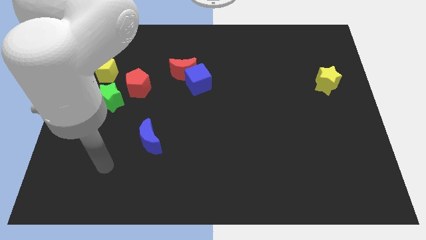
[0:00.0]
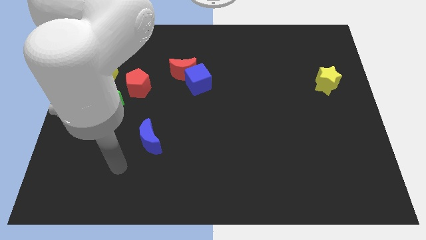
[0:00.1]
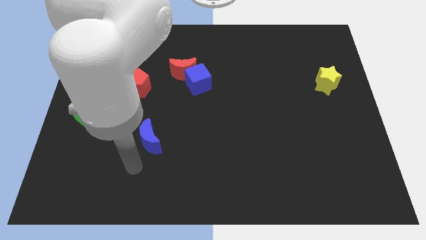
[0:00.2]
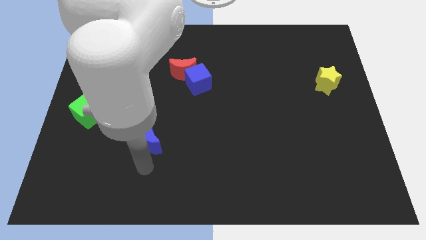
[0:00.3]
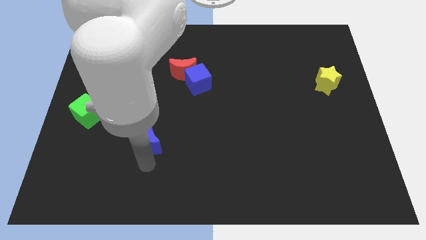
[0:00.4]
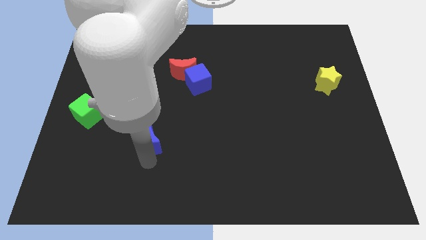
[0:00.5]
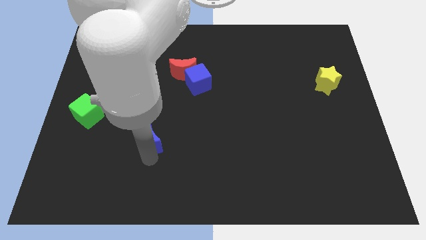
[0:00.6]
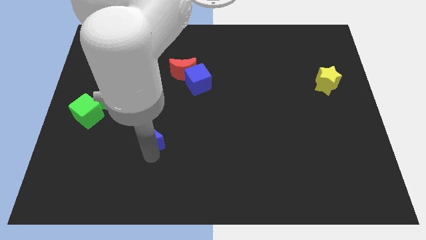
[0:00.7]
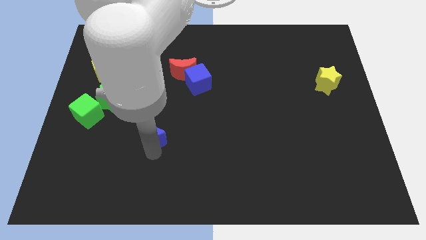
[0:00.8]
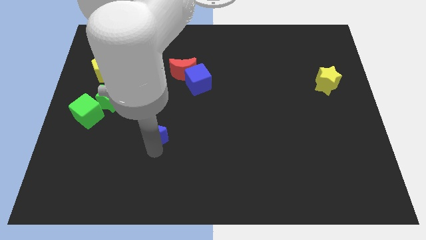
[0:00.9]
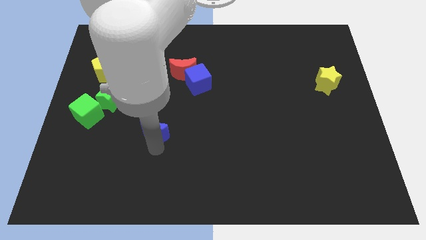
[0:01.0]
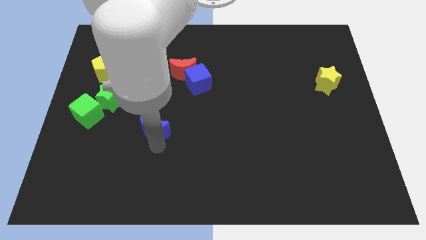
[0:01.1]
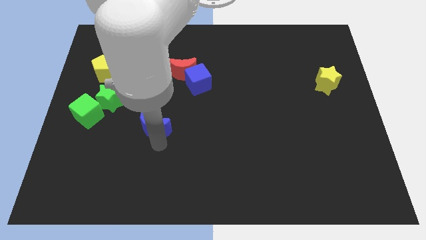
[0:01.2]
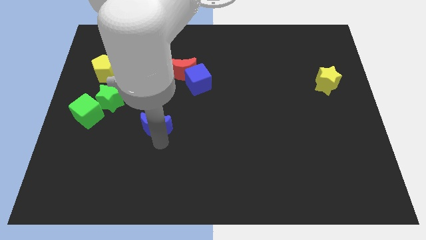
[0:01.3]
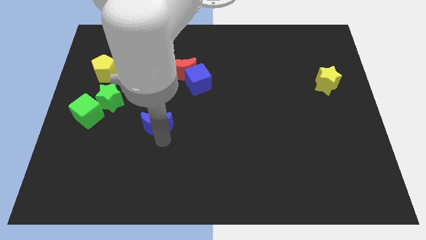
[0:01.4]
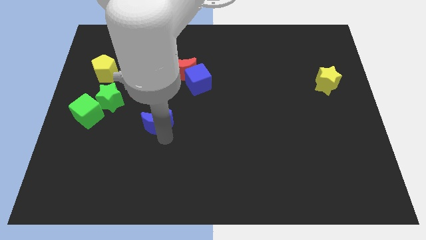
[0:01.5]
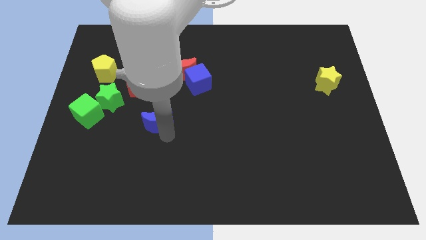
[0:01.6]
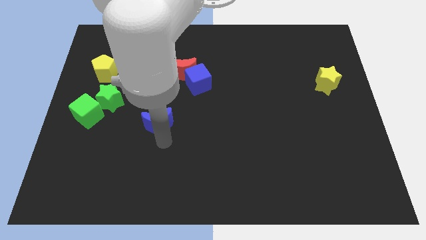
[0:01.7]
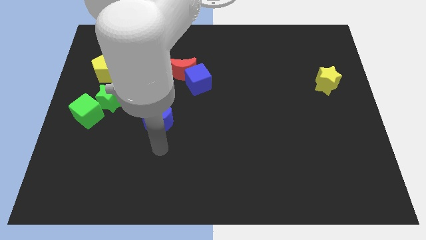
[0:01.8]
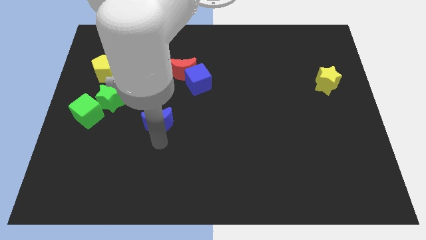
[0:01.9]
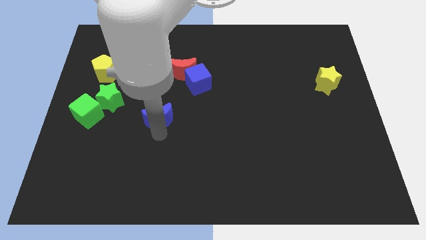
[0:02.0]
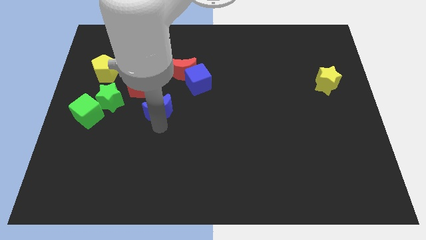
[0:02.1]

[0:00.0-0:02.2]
move the blue moon upwards slightly

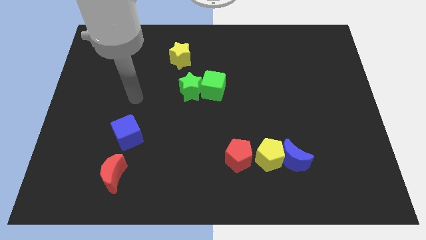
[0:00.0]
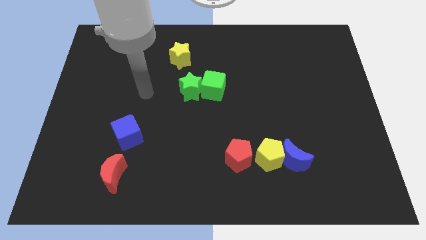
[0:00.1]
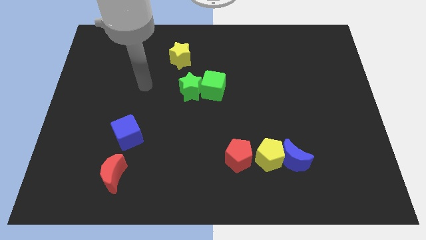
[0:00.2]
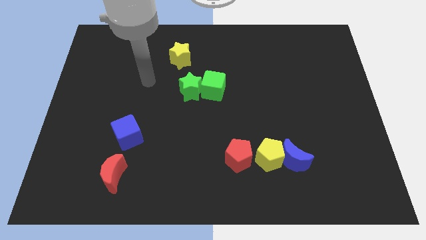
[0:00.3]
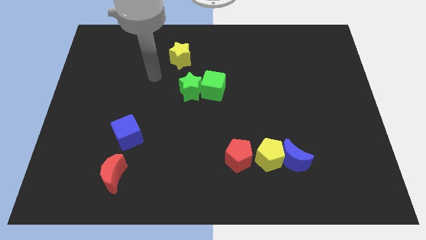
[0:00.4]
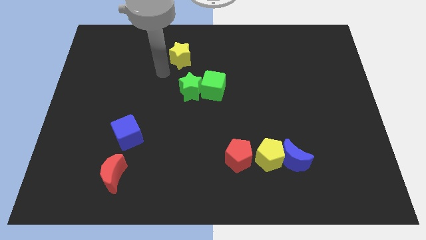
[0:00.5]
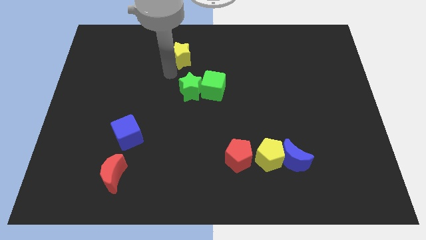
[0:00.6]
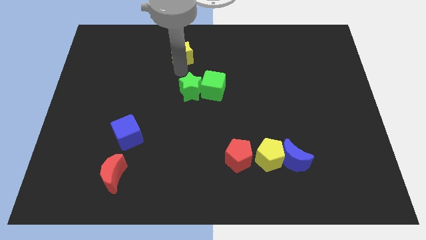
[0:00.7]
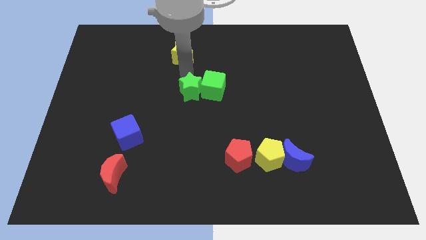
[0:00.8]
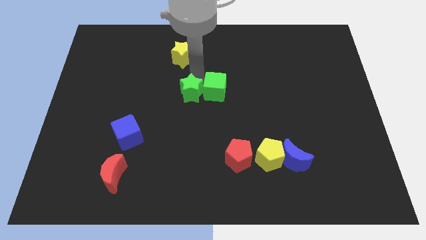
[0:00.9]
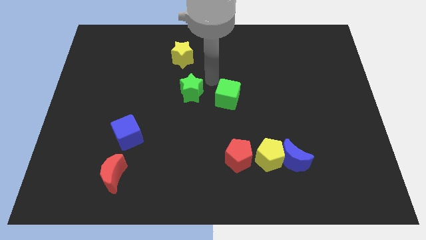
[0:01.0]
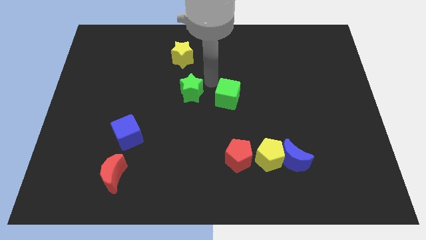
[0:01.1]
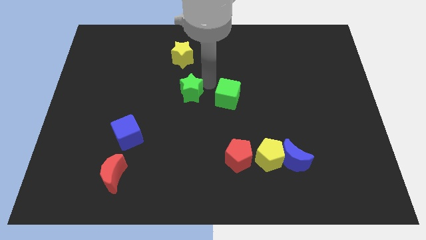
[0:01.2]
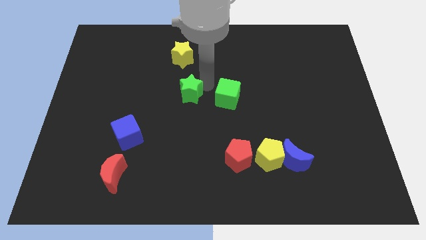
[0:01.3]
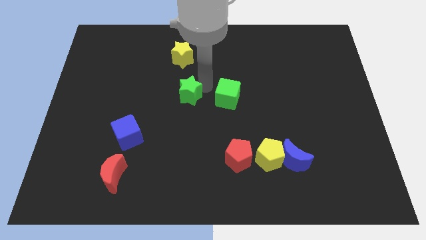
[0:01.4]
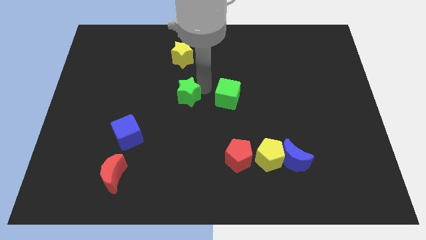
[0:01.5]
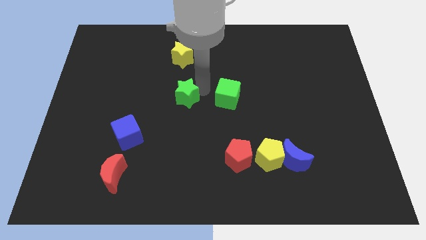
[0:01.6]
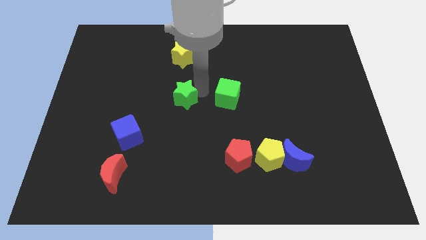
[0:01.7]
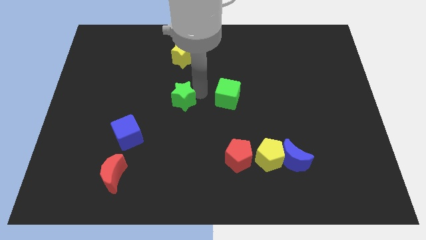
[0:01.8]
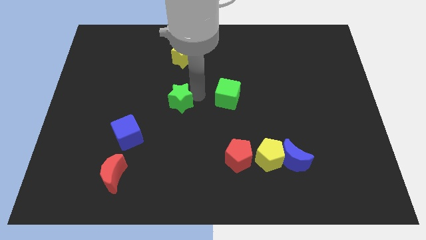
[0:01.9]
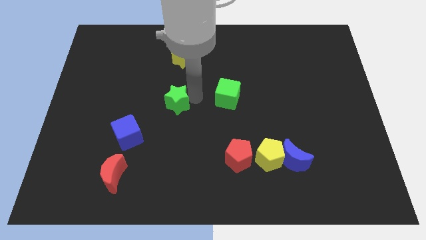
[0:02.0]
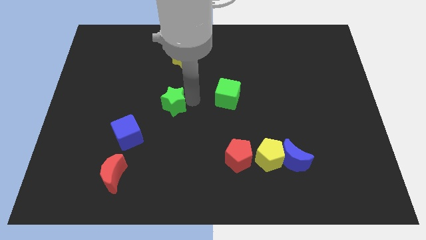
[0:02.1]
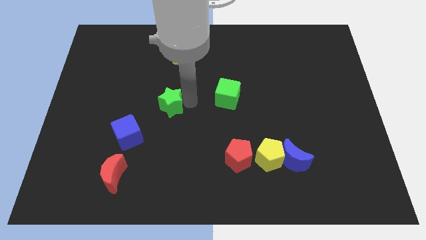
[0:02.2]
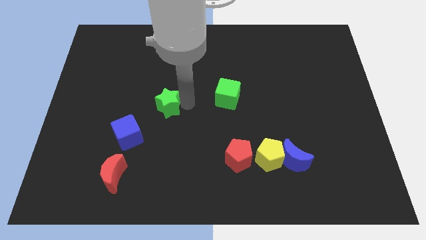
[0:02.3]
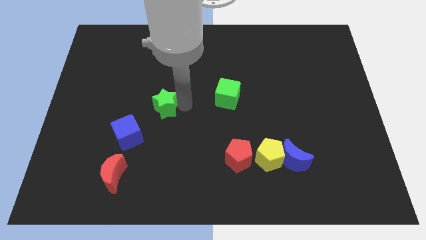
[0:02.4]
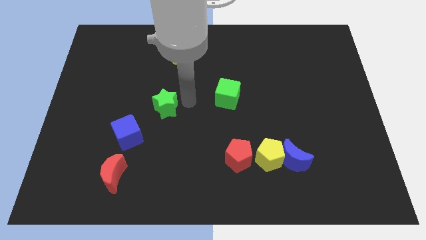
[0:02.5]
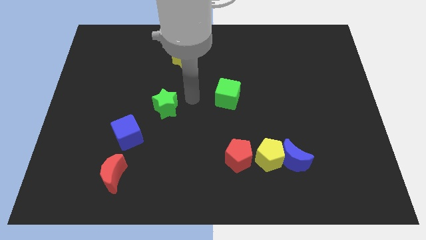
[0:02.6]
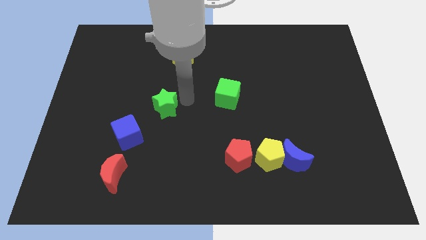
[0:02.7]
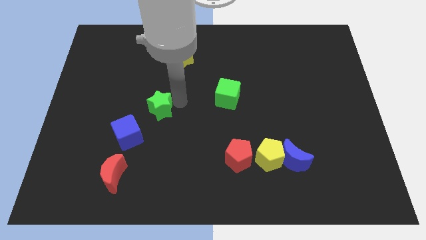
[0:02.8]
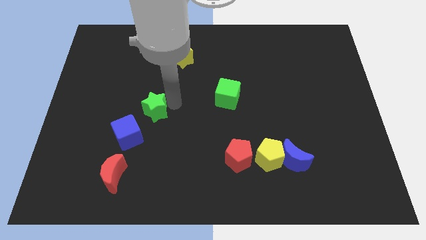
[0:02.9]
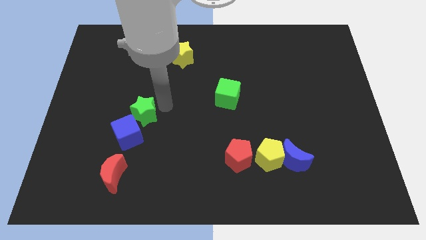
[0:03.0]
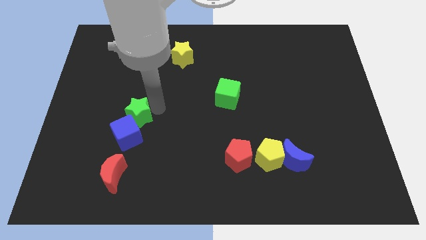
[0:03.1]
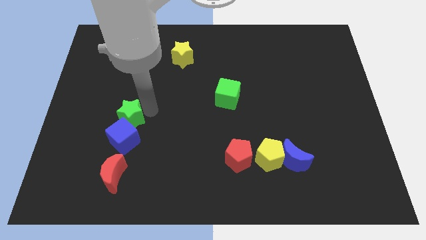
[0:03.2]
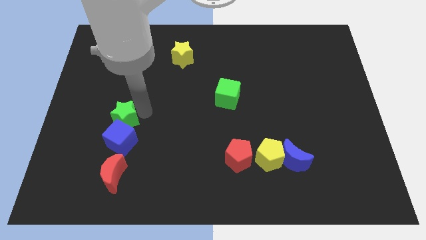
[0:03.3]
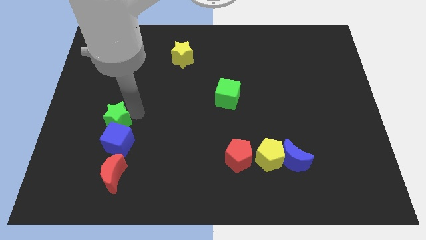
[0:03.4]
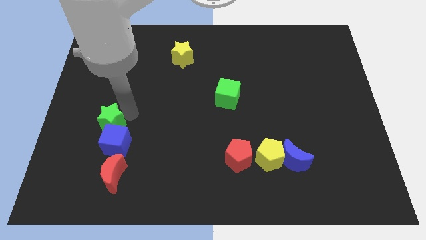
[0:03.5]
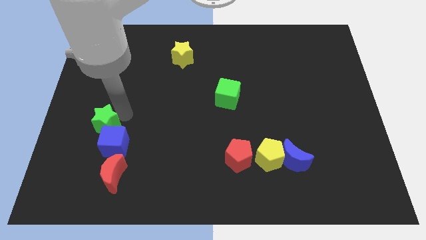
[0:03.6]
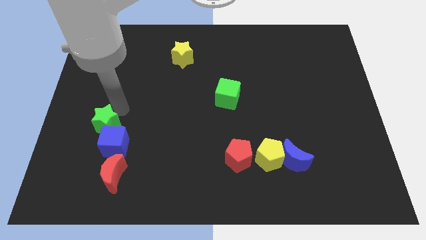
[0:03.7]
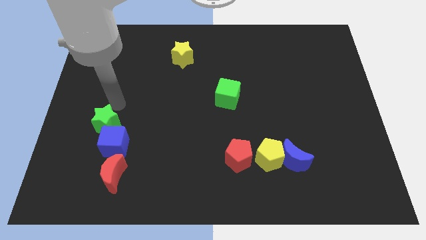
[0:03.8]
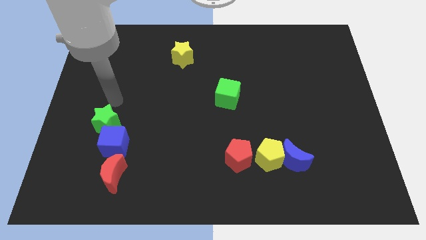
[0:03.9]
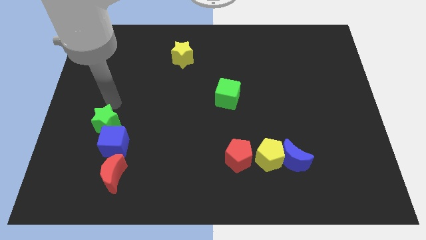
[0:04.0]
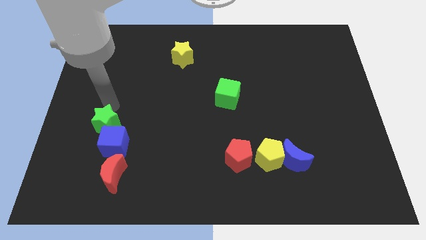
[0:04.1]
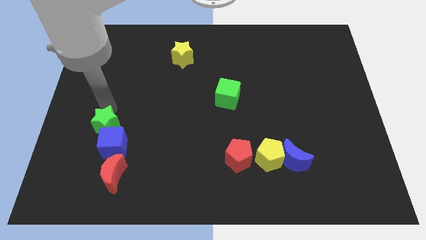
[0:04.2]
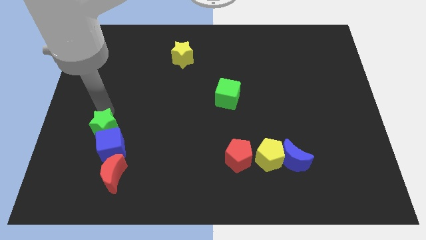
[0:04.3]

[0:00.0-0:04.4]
move the green star diagonally downwards and to the left

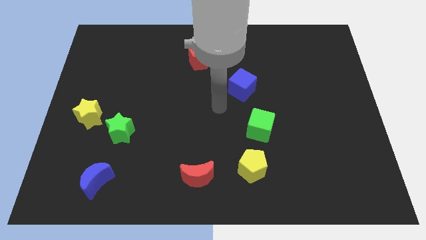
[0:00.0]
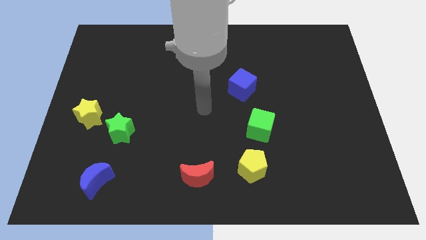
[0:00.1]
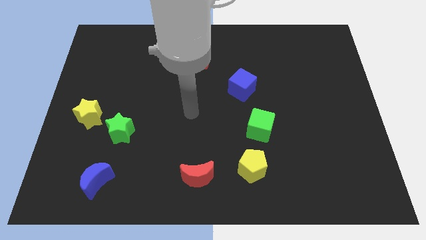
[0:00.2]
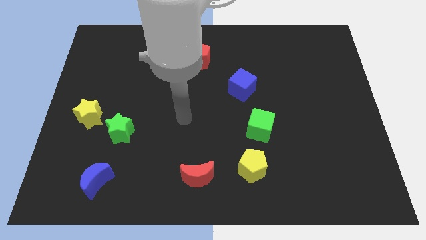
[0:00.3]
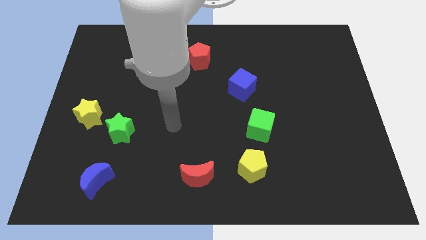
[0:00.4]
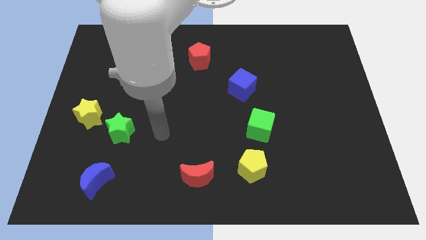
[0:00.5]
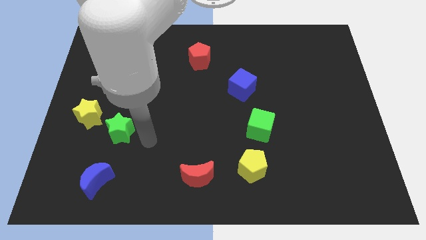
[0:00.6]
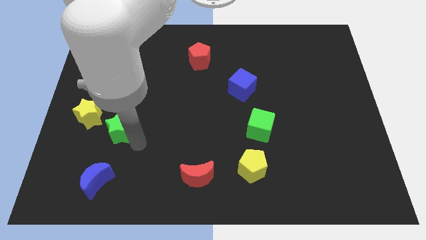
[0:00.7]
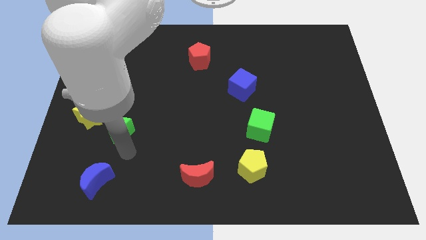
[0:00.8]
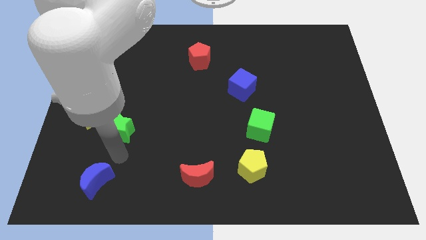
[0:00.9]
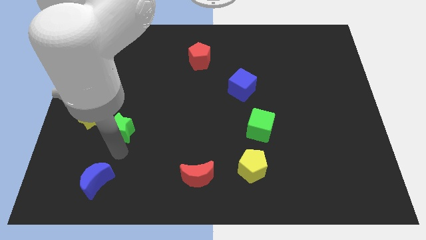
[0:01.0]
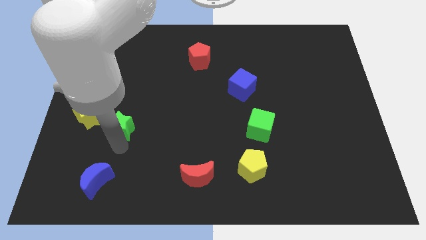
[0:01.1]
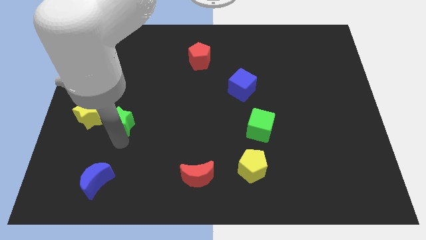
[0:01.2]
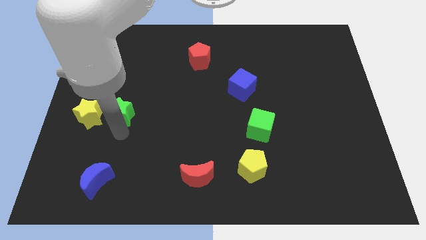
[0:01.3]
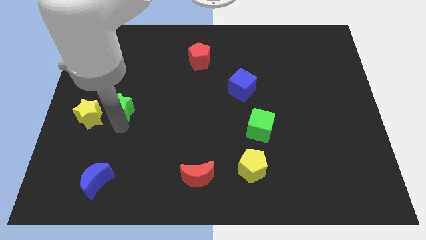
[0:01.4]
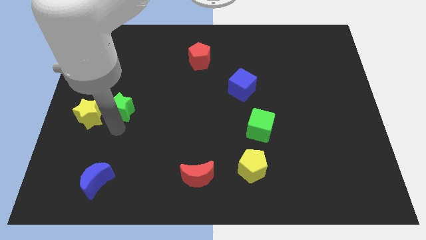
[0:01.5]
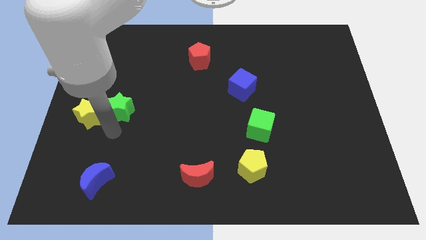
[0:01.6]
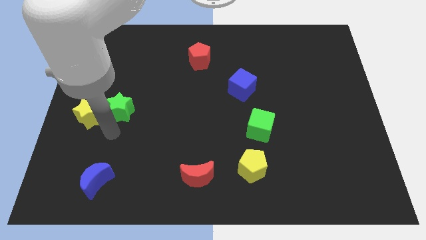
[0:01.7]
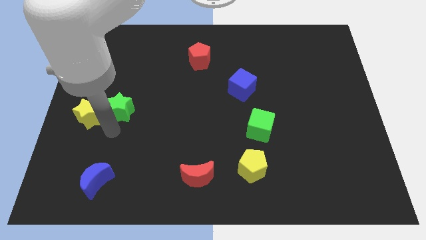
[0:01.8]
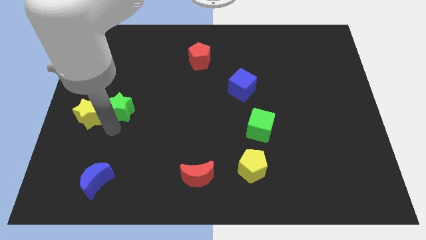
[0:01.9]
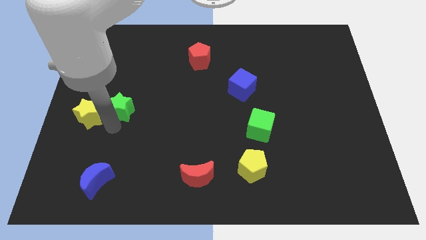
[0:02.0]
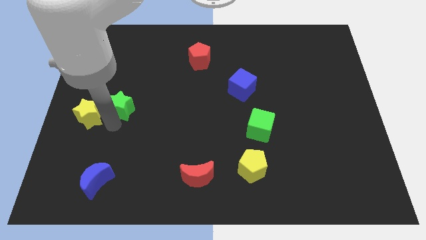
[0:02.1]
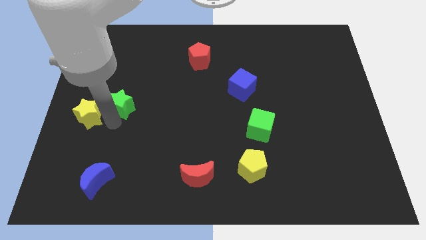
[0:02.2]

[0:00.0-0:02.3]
slightly slide the green star up
